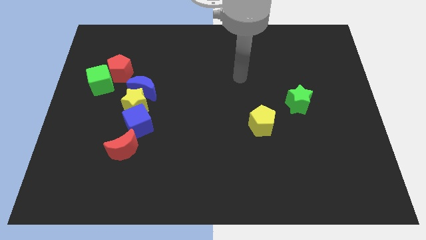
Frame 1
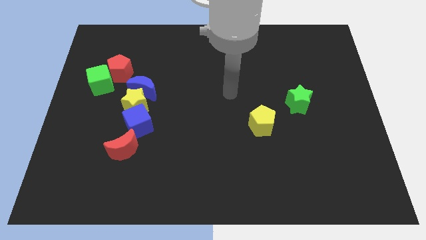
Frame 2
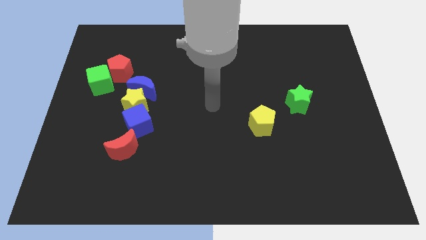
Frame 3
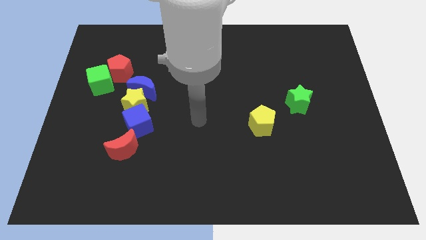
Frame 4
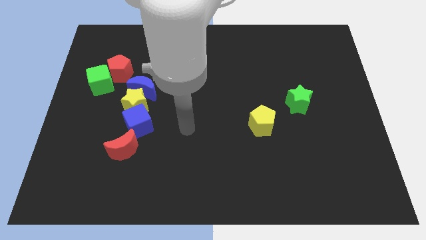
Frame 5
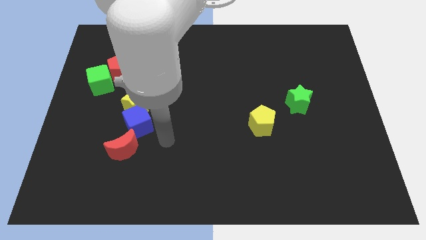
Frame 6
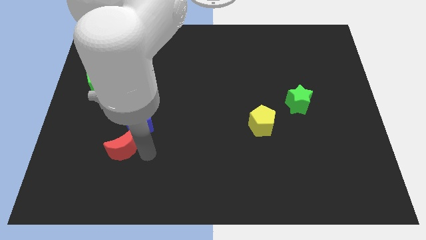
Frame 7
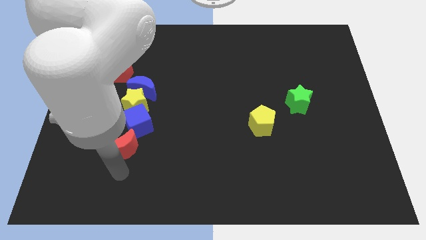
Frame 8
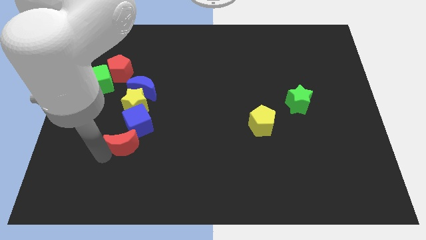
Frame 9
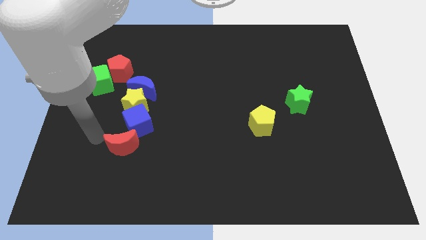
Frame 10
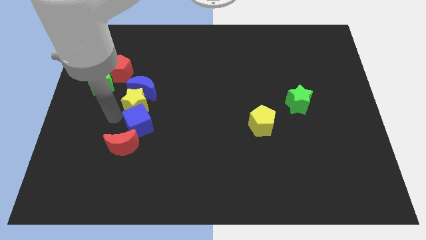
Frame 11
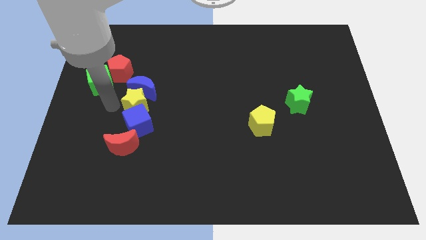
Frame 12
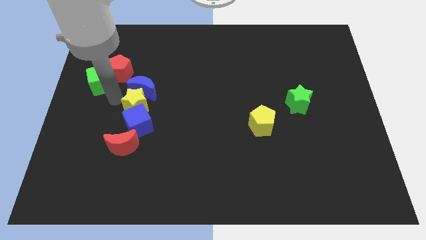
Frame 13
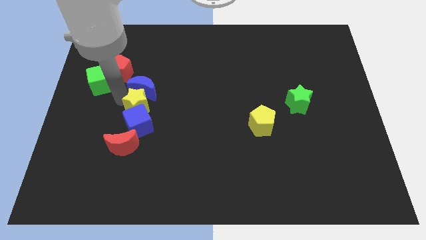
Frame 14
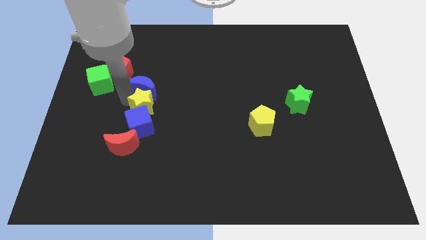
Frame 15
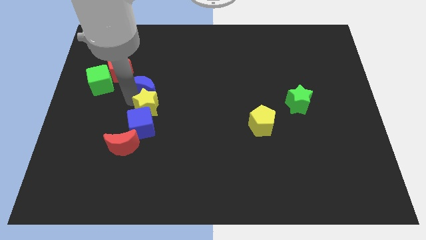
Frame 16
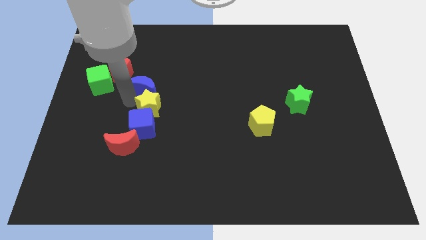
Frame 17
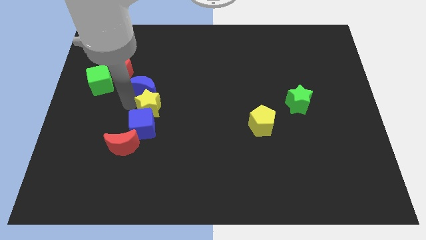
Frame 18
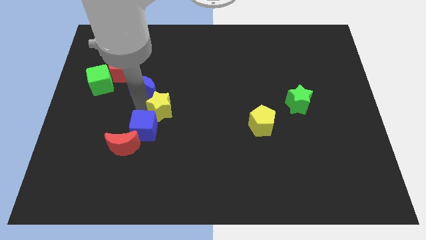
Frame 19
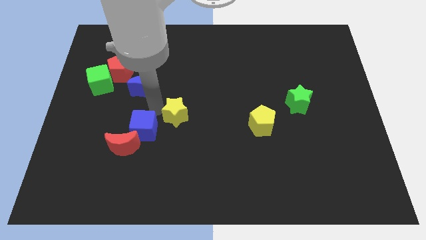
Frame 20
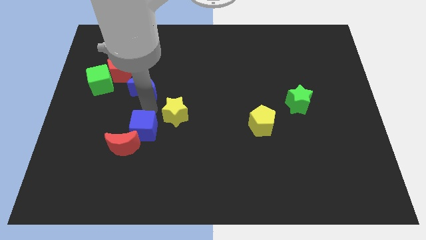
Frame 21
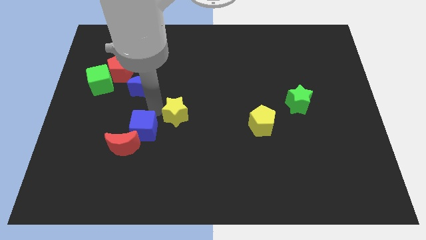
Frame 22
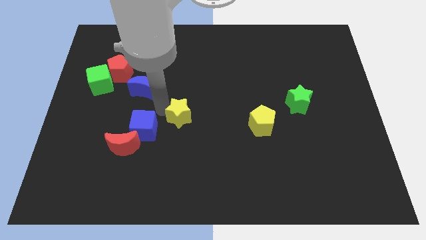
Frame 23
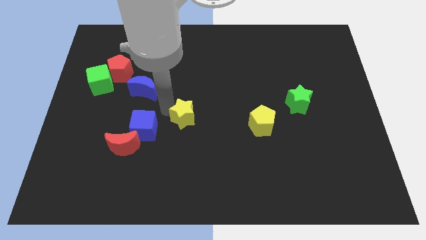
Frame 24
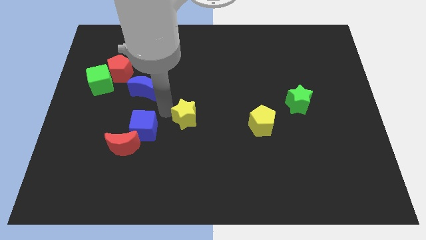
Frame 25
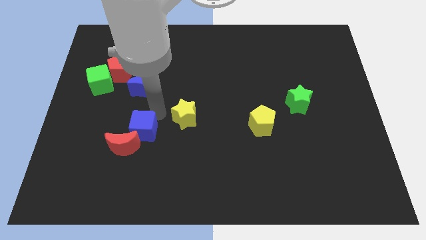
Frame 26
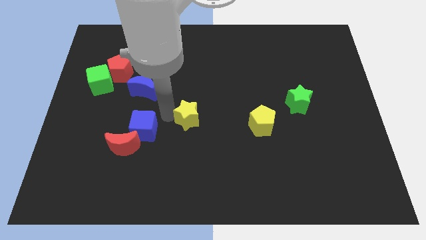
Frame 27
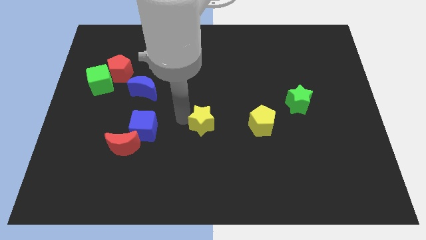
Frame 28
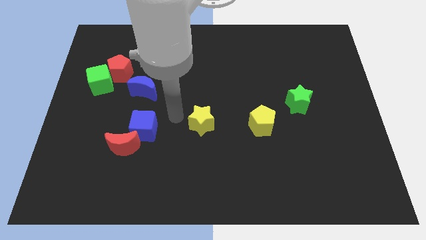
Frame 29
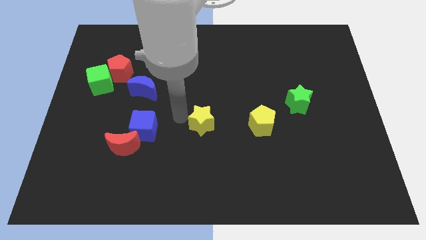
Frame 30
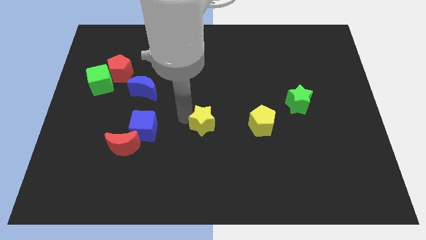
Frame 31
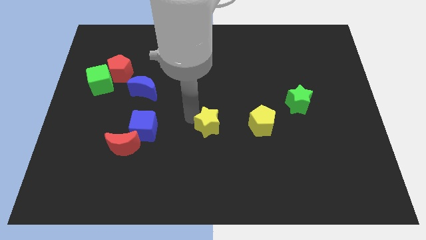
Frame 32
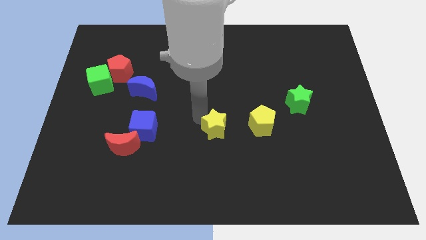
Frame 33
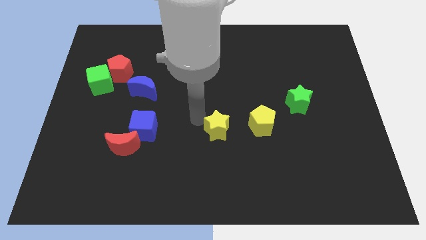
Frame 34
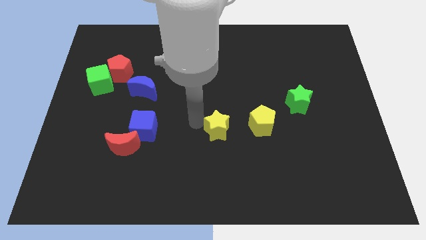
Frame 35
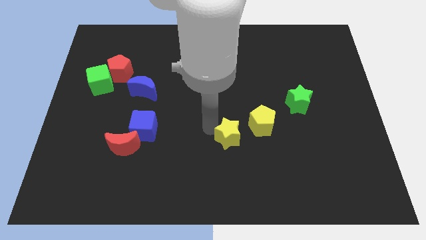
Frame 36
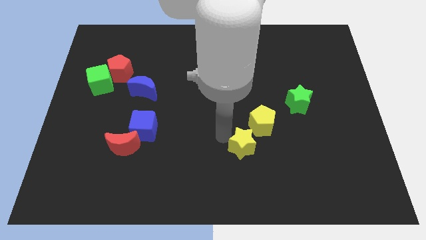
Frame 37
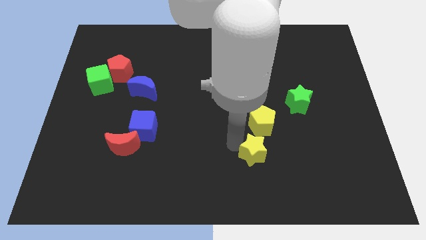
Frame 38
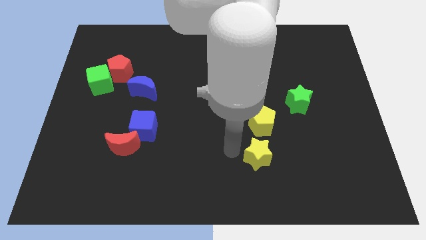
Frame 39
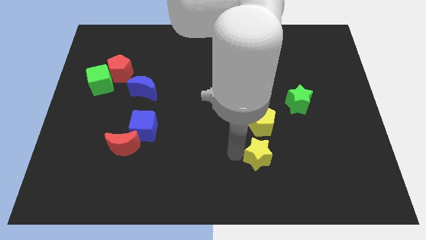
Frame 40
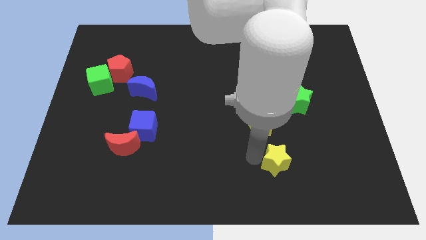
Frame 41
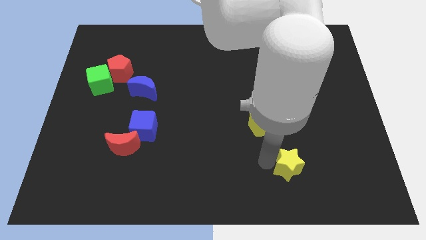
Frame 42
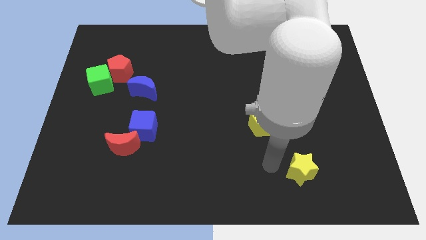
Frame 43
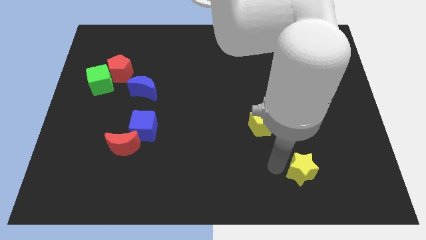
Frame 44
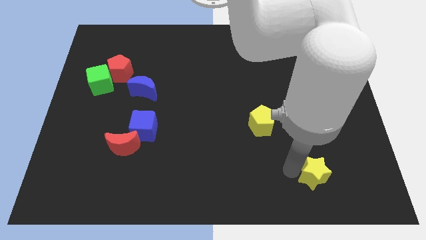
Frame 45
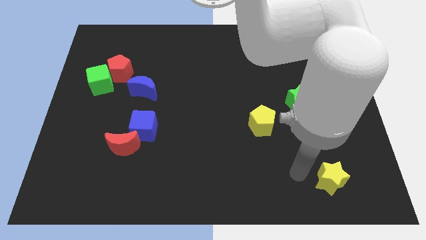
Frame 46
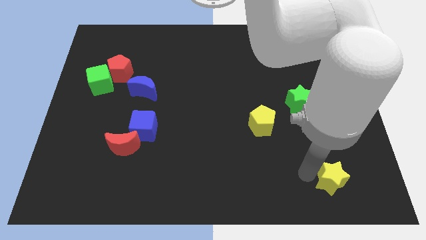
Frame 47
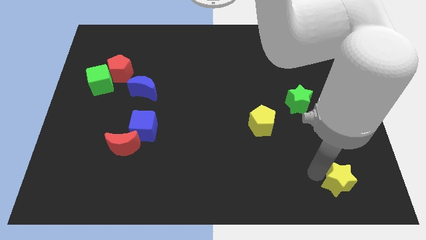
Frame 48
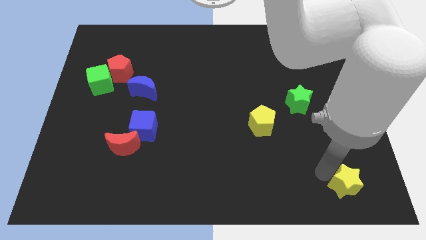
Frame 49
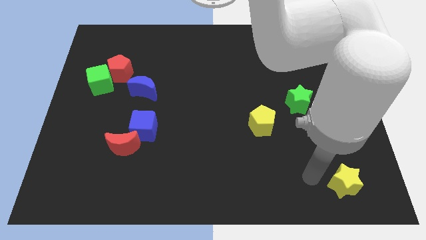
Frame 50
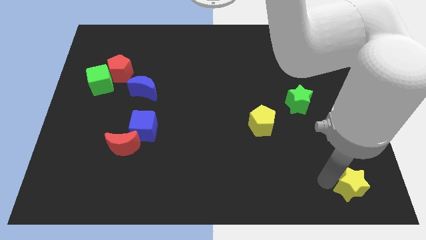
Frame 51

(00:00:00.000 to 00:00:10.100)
slide the yellow star to the bottom right of the board

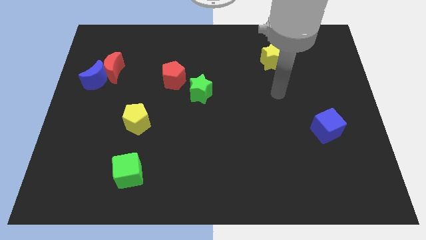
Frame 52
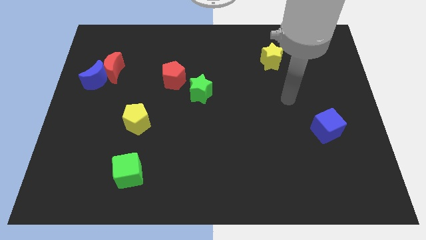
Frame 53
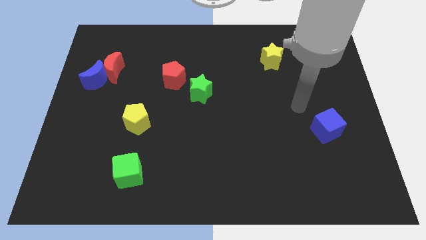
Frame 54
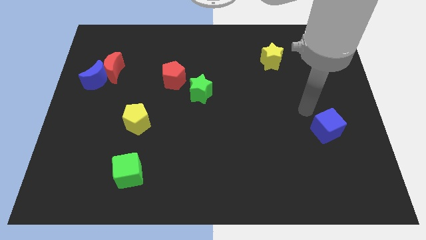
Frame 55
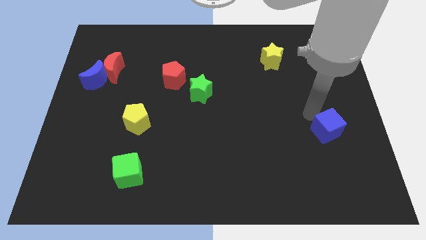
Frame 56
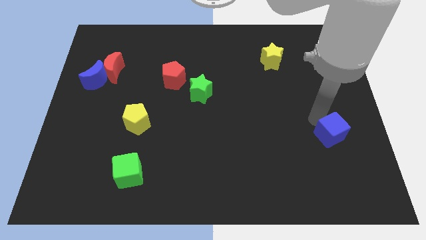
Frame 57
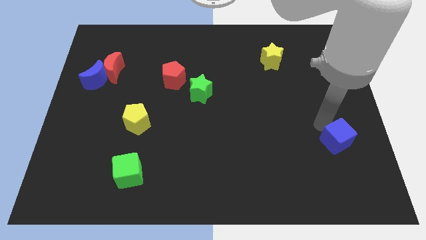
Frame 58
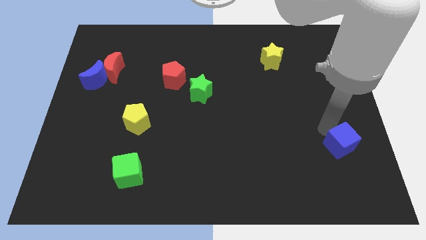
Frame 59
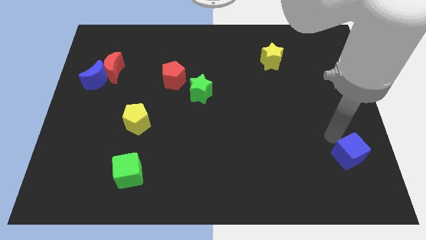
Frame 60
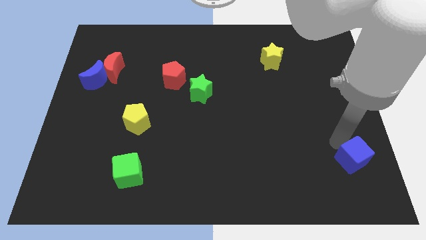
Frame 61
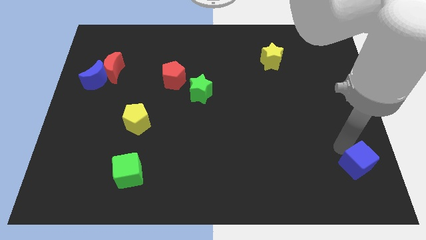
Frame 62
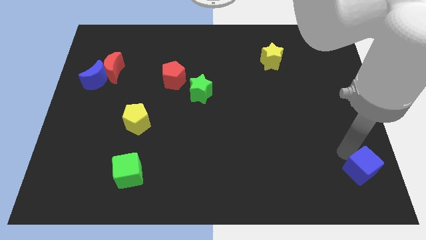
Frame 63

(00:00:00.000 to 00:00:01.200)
push the blue cube to the bottom right of the board
